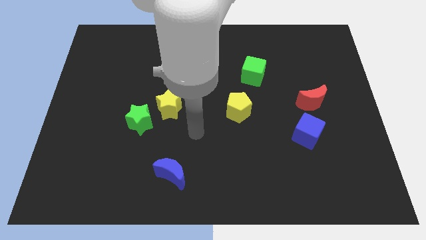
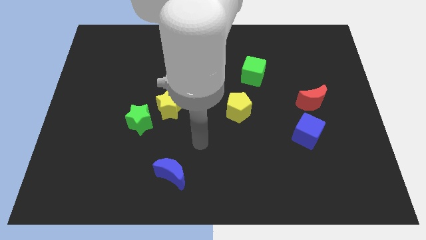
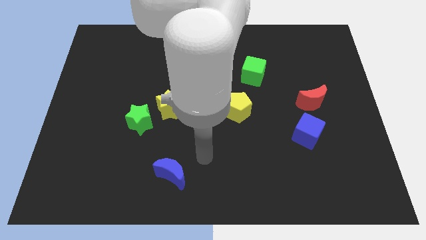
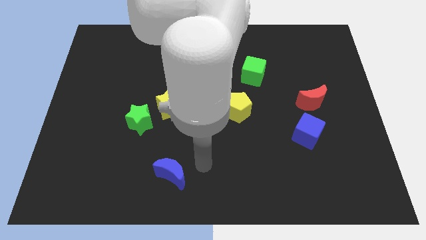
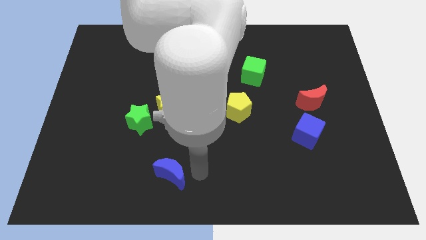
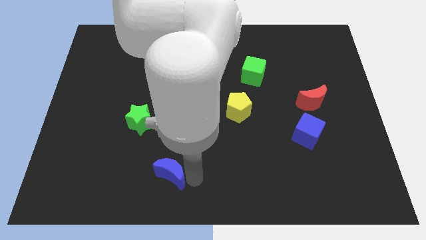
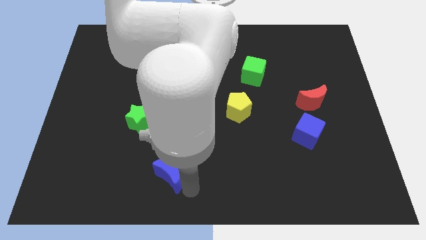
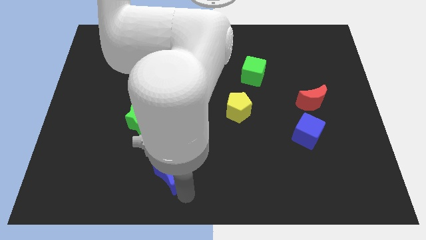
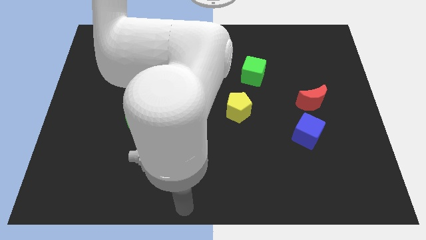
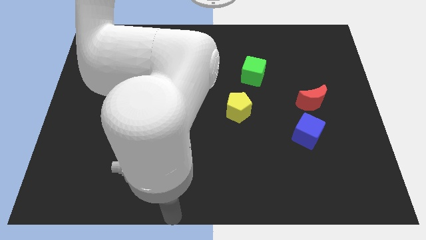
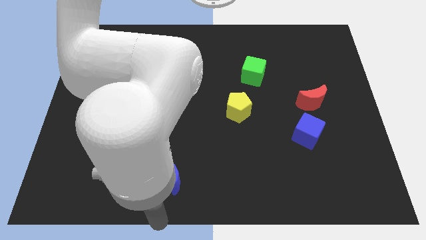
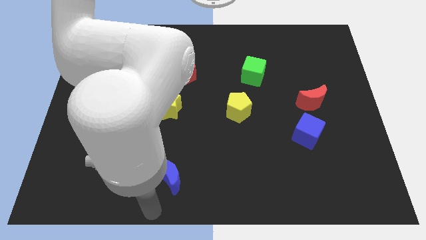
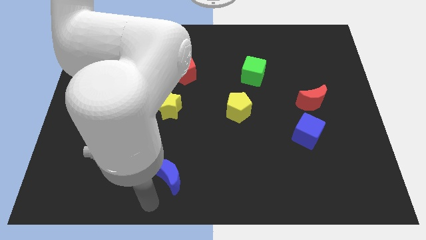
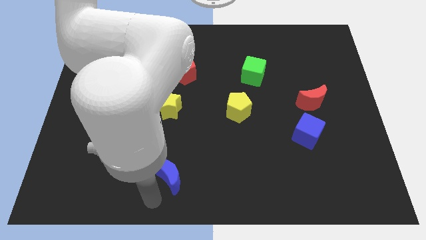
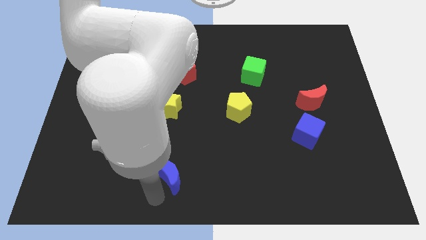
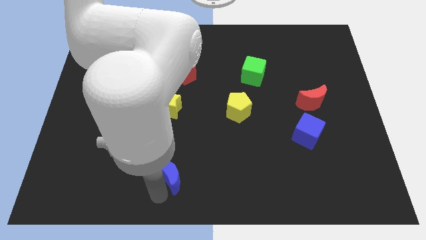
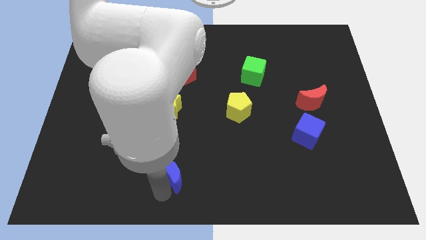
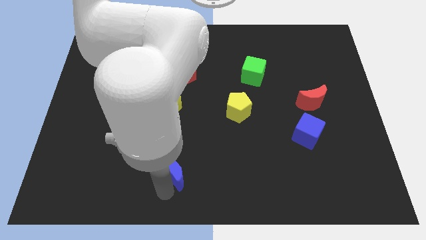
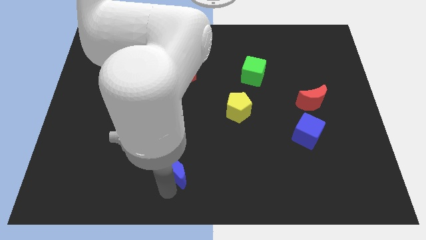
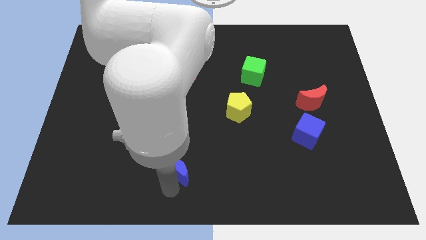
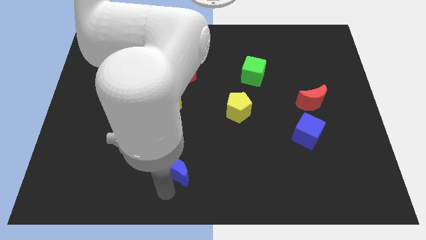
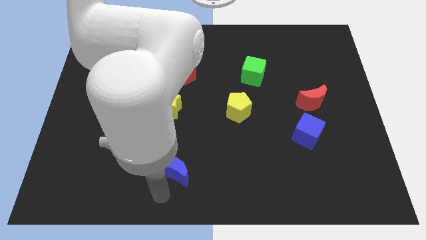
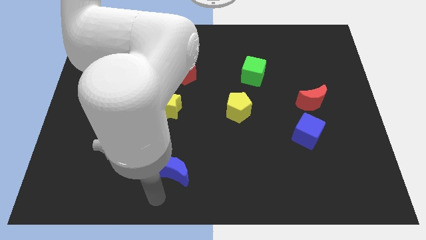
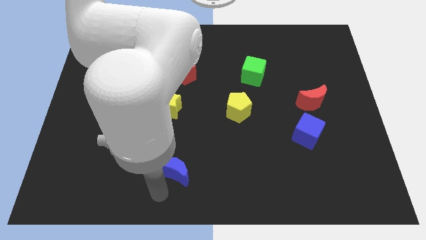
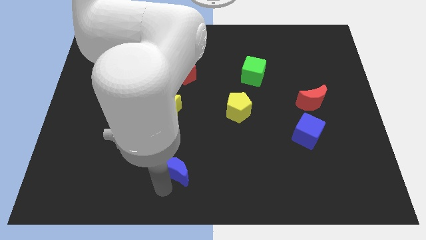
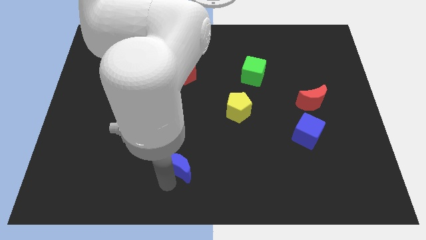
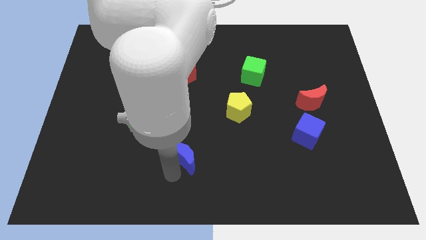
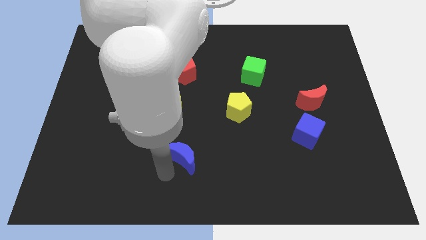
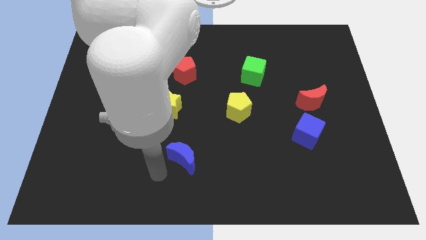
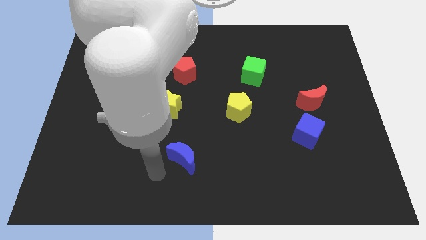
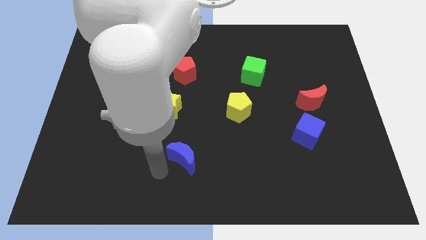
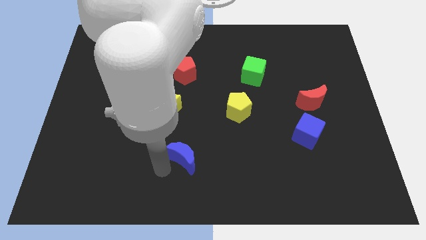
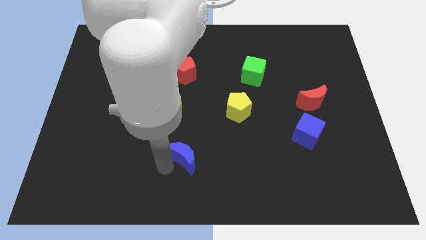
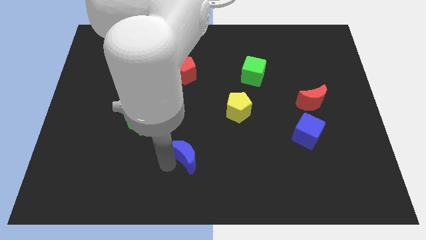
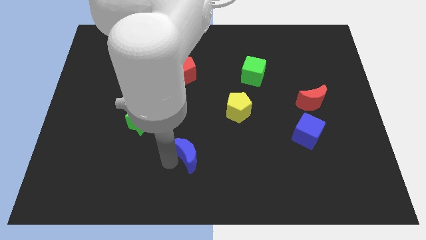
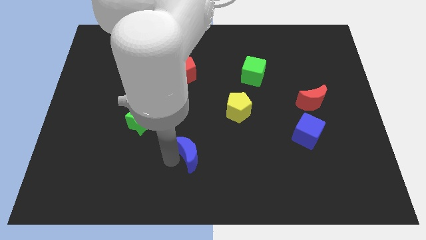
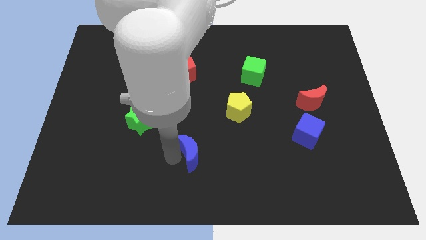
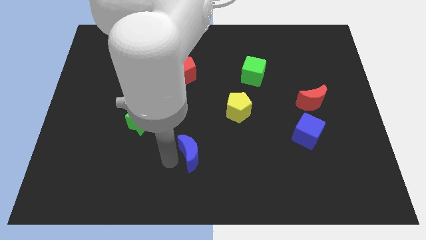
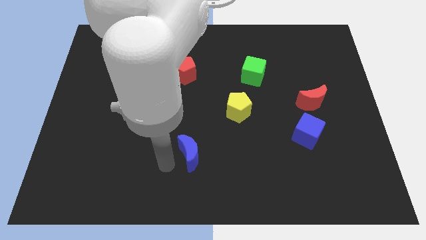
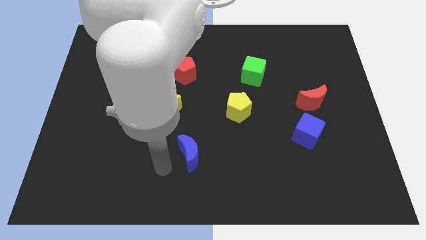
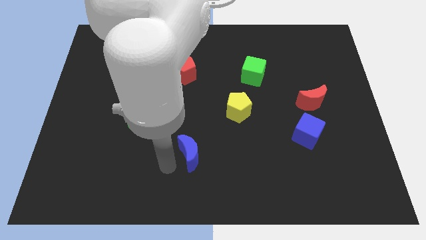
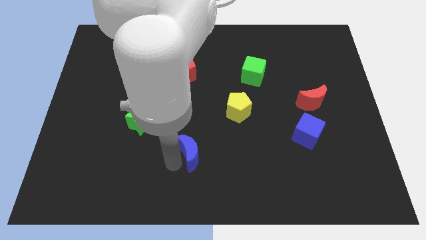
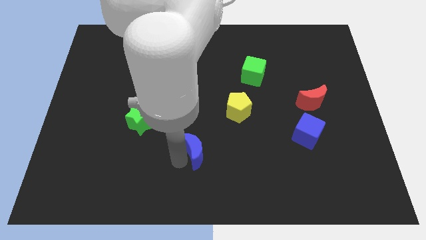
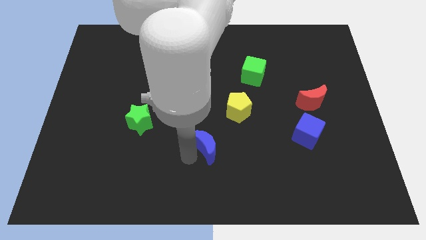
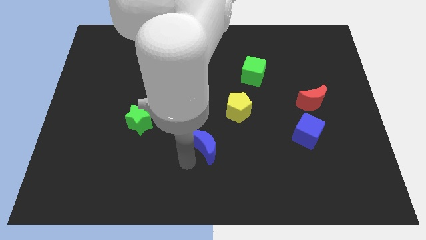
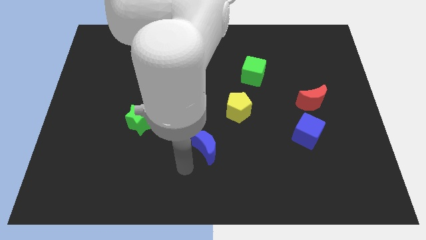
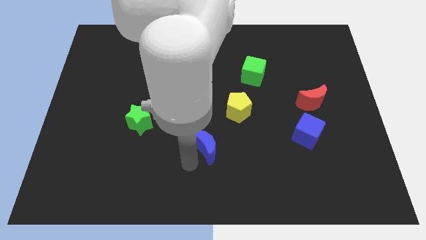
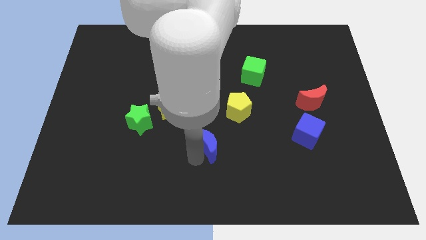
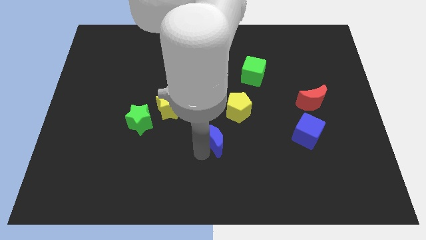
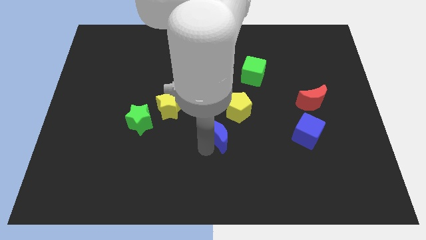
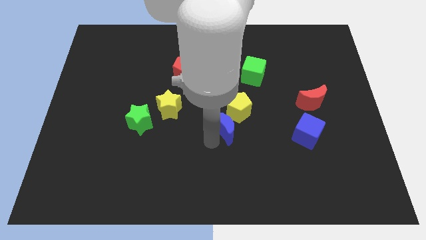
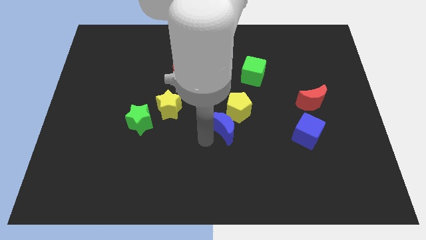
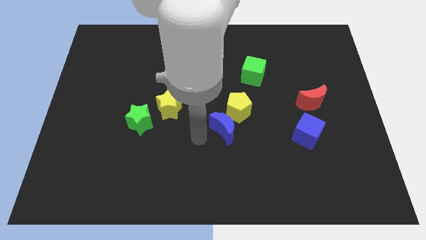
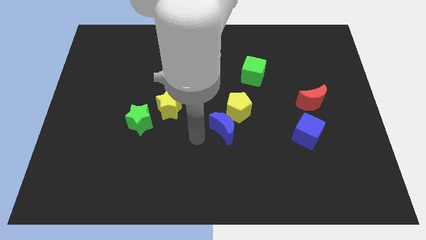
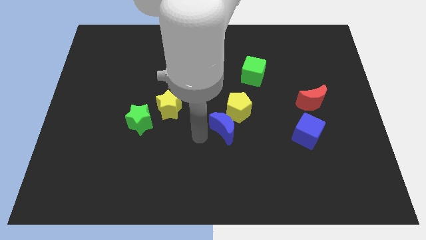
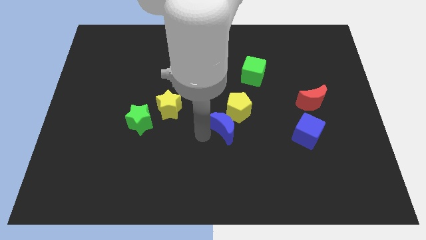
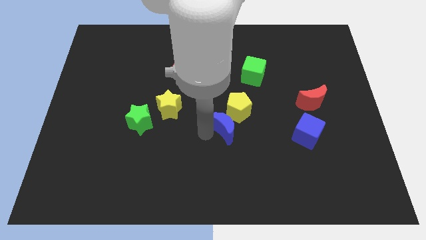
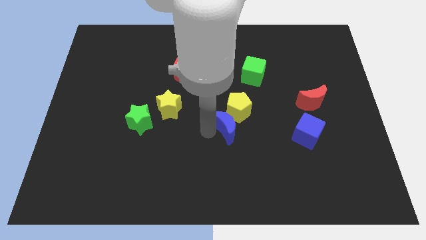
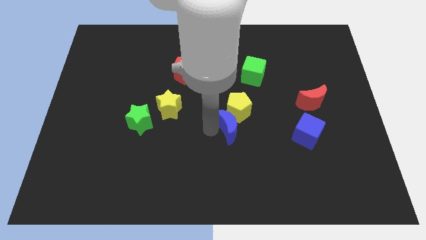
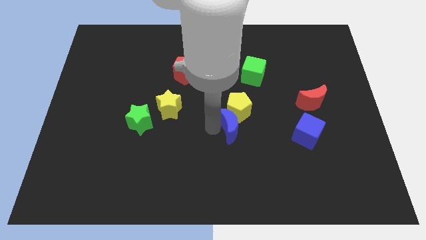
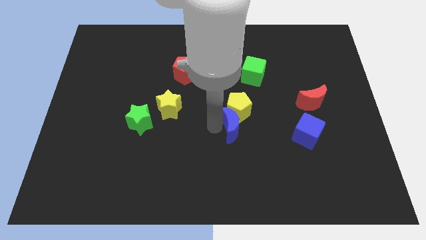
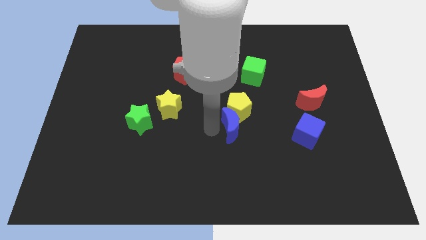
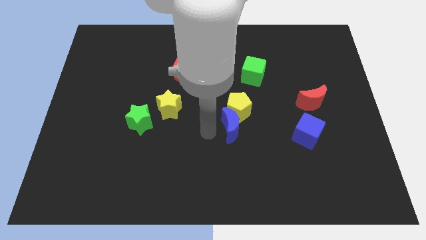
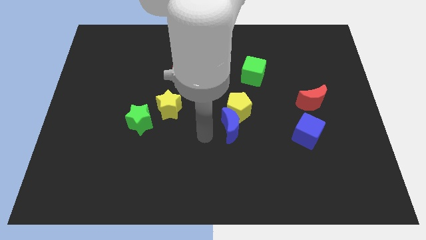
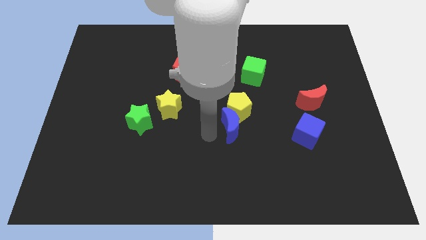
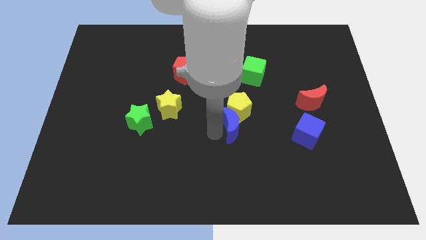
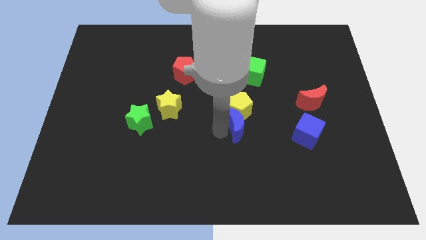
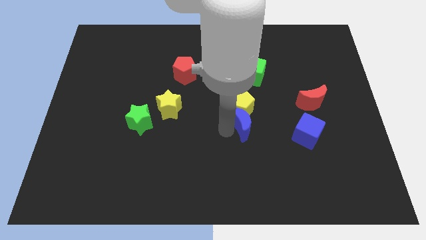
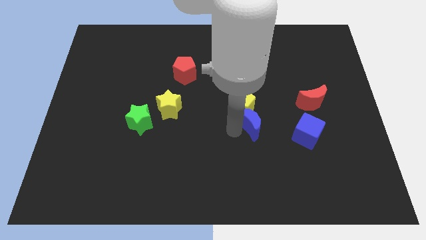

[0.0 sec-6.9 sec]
slide the blue moon to the bottom side of the green cube

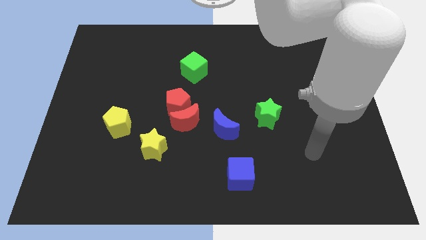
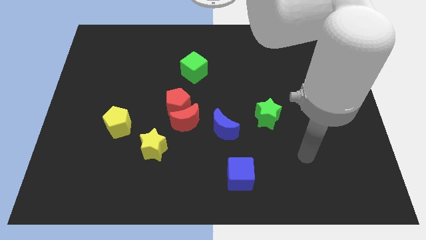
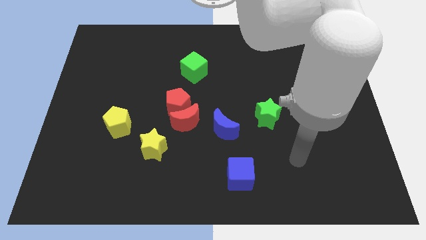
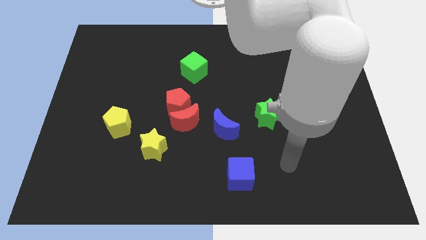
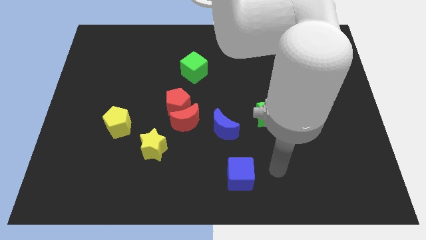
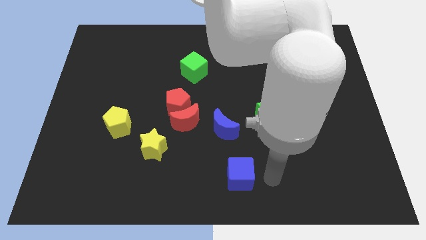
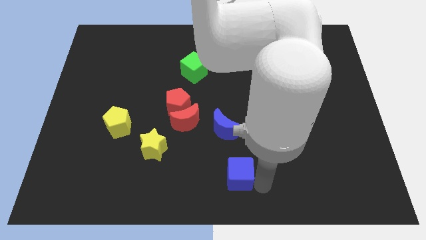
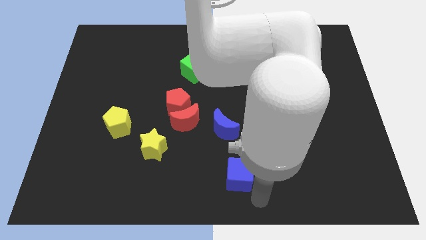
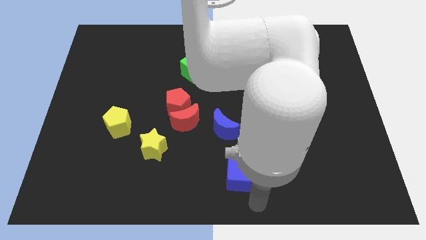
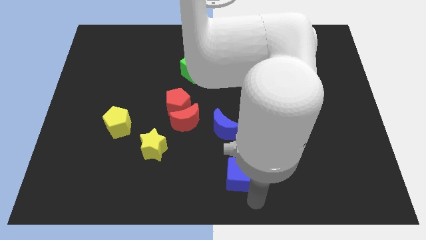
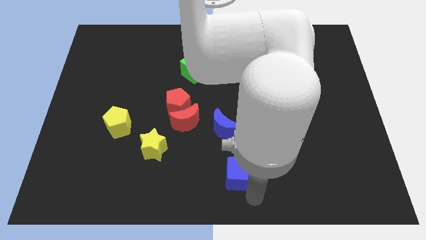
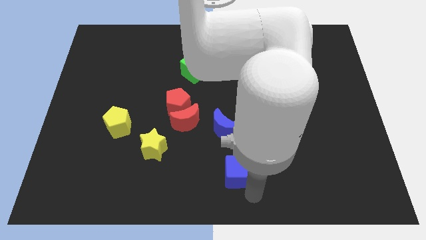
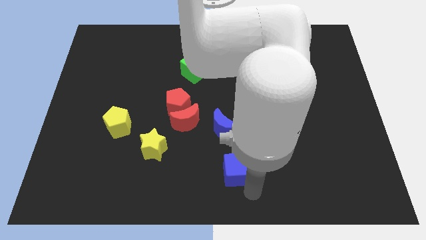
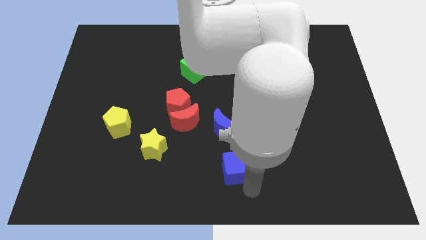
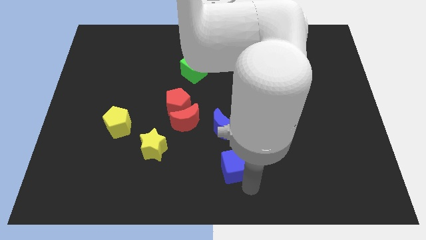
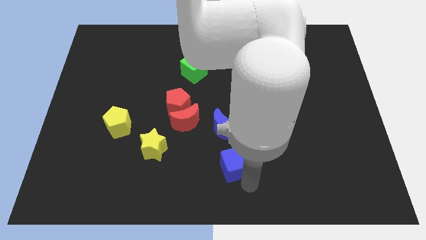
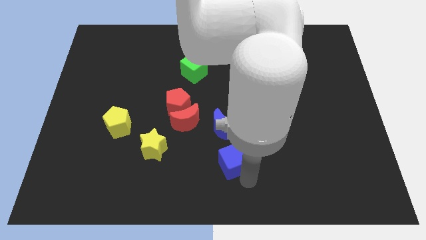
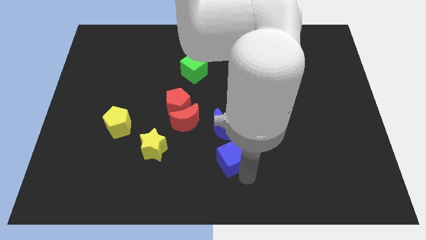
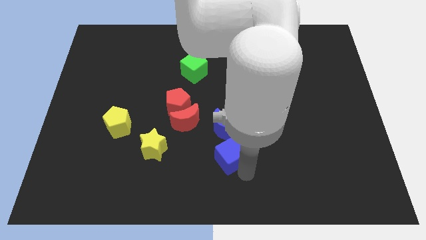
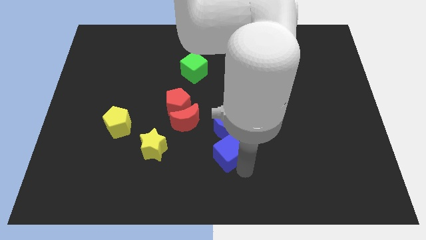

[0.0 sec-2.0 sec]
push the blue cube to the bottom right side of the red moon
